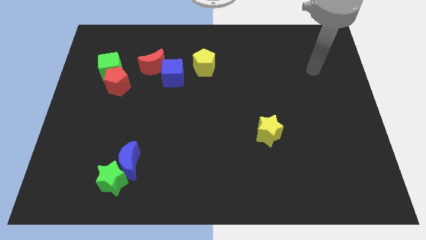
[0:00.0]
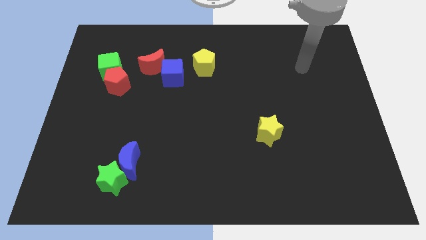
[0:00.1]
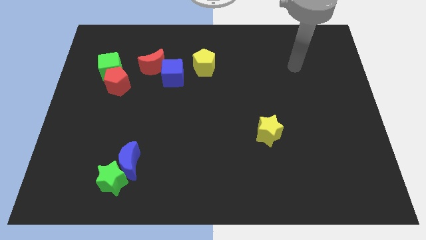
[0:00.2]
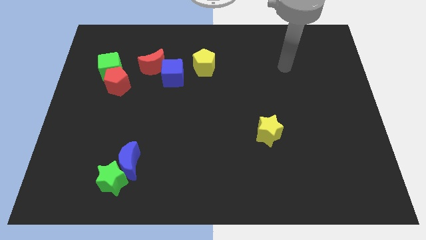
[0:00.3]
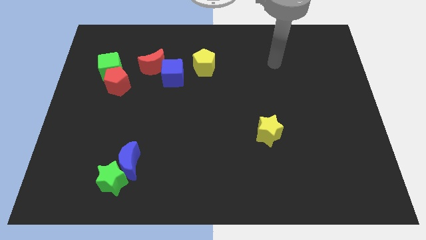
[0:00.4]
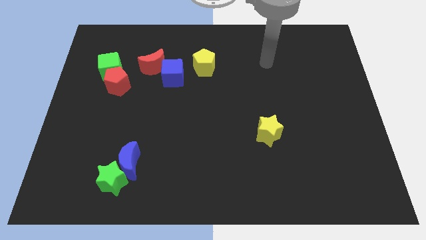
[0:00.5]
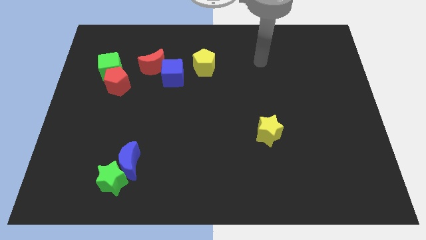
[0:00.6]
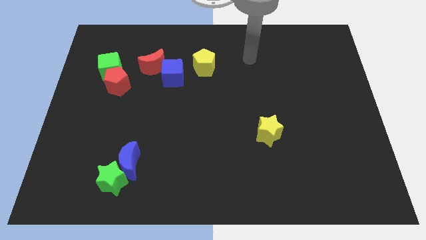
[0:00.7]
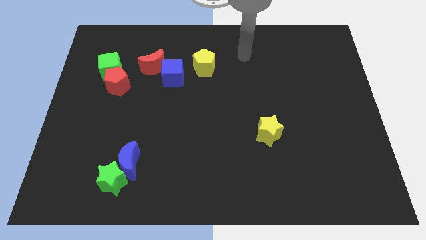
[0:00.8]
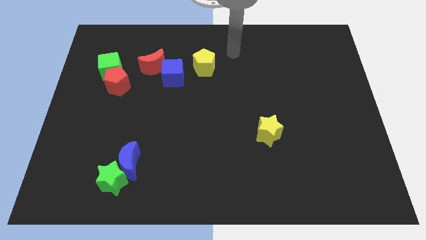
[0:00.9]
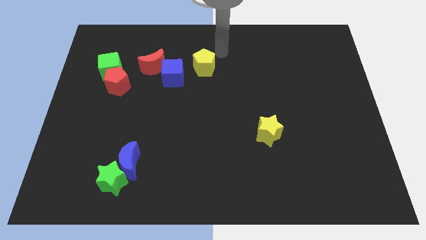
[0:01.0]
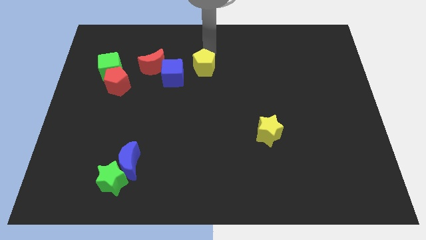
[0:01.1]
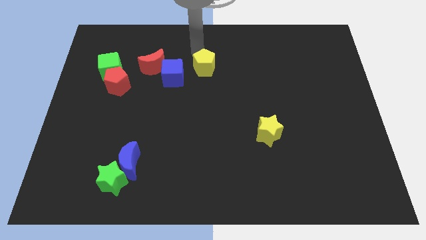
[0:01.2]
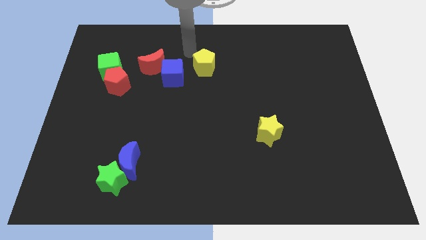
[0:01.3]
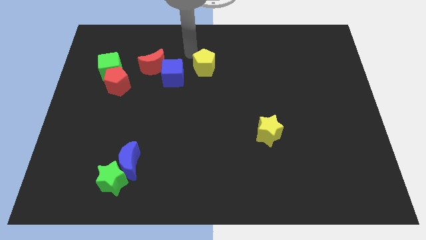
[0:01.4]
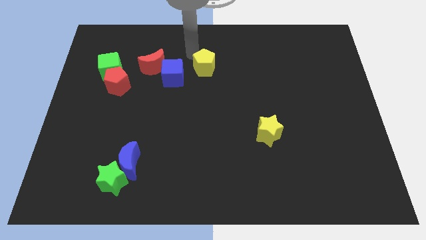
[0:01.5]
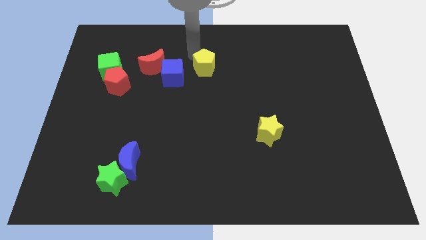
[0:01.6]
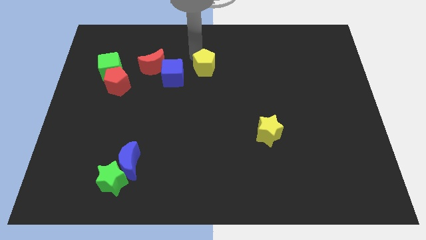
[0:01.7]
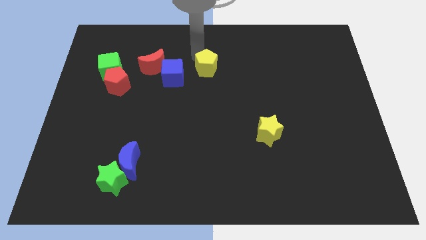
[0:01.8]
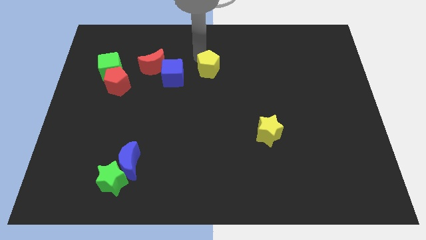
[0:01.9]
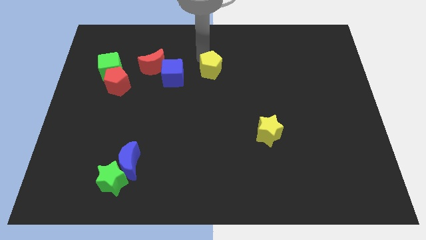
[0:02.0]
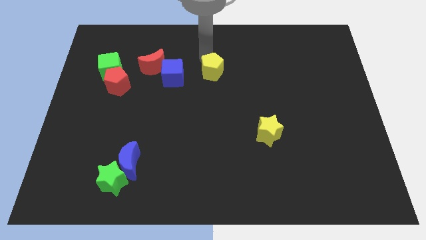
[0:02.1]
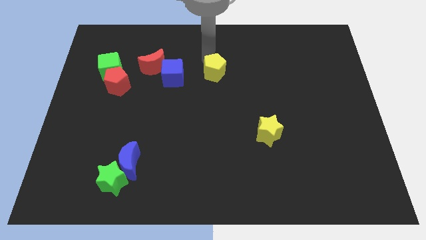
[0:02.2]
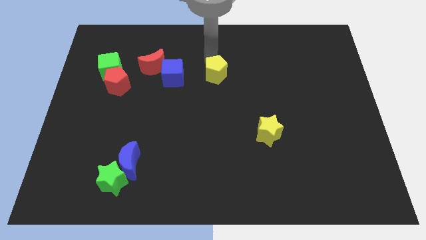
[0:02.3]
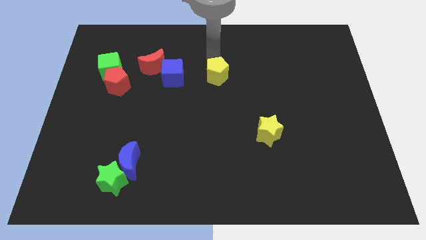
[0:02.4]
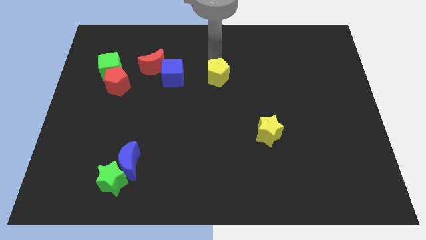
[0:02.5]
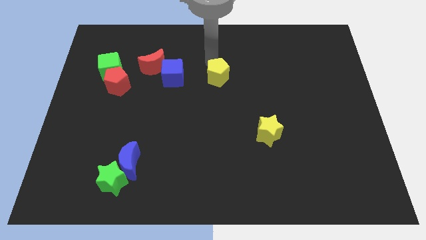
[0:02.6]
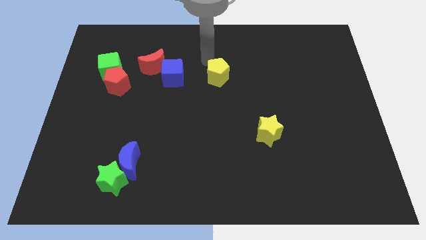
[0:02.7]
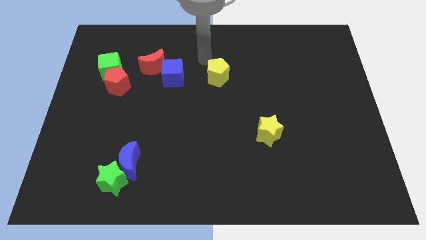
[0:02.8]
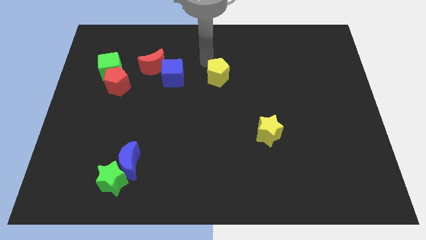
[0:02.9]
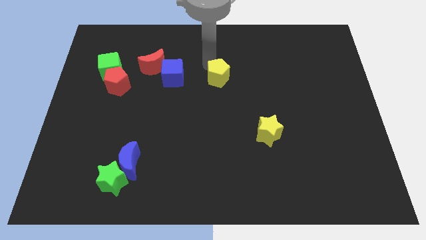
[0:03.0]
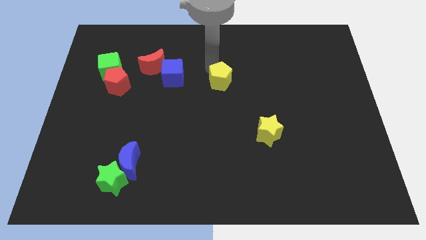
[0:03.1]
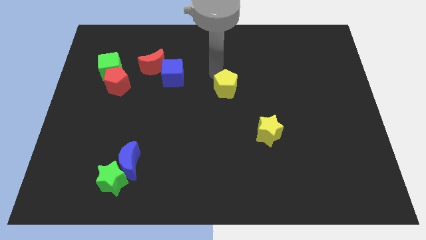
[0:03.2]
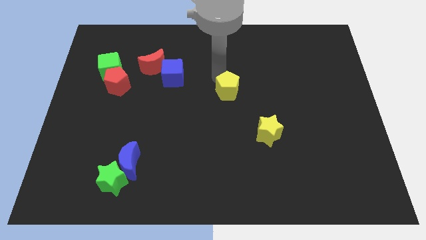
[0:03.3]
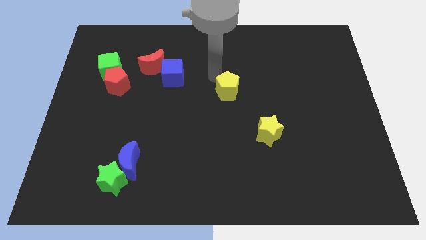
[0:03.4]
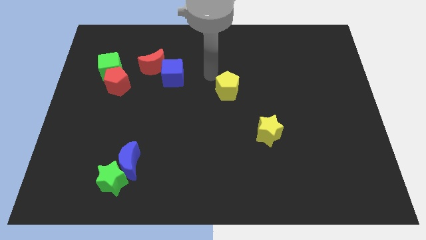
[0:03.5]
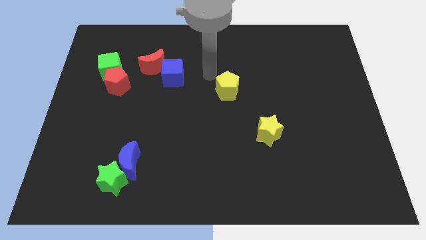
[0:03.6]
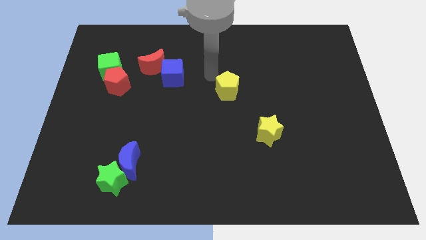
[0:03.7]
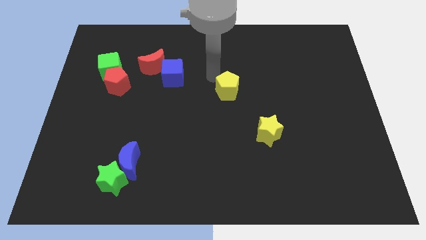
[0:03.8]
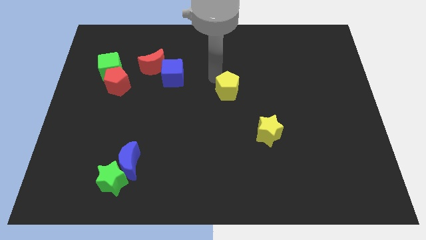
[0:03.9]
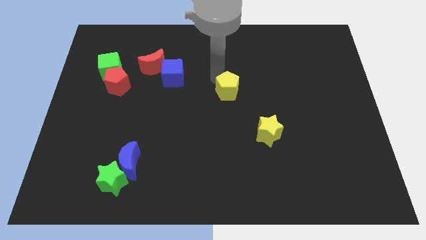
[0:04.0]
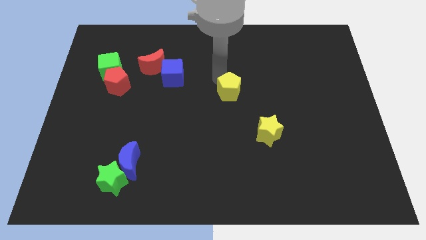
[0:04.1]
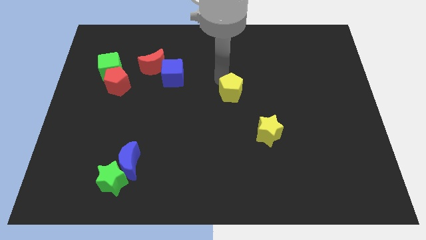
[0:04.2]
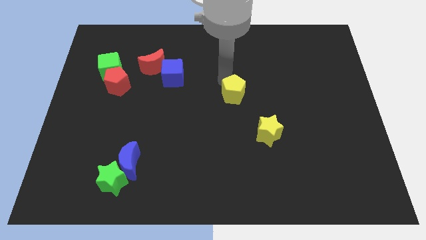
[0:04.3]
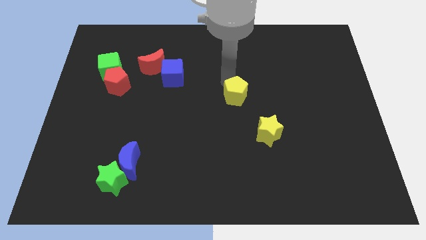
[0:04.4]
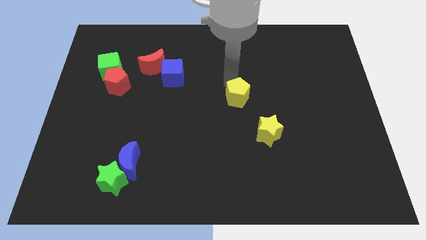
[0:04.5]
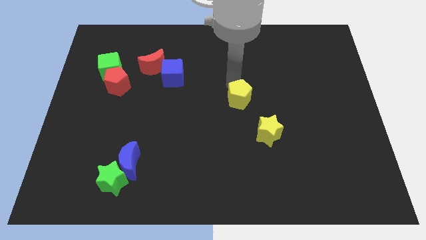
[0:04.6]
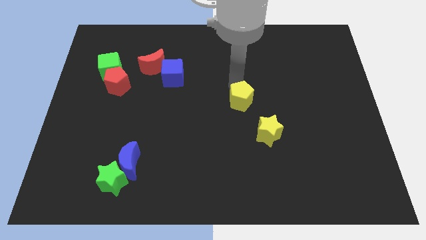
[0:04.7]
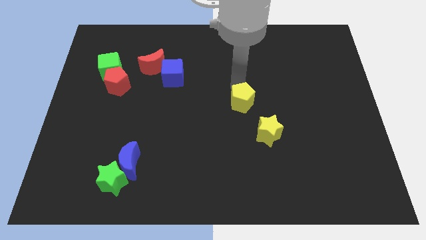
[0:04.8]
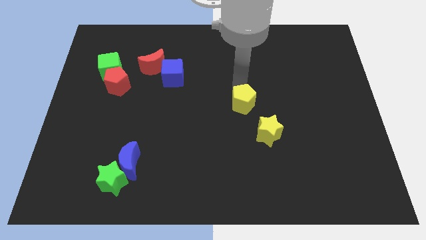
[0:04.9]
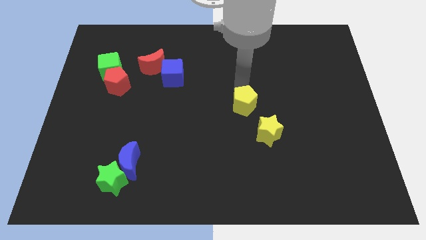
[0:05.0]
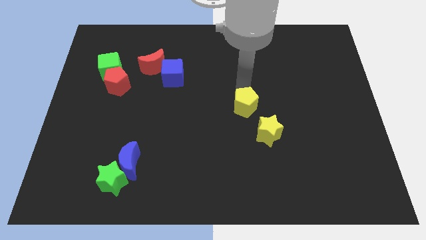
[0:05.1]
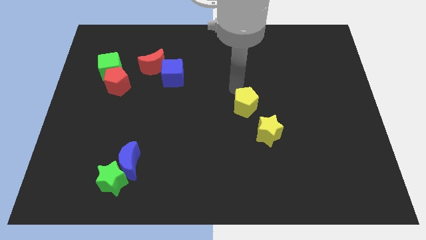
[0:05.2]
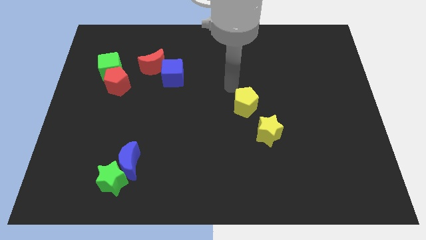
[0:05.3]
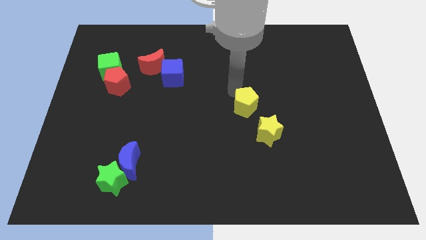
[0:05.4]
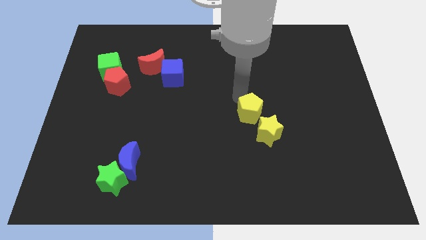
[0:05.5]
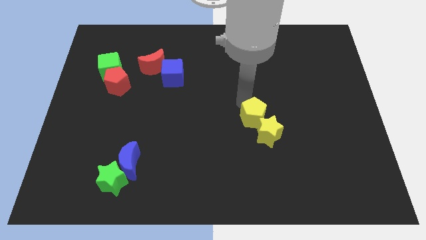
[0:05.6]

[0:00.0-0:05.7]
move the yellow pentagon close to the yellow star

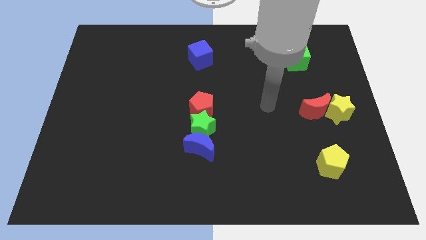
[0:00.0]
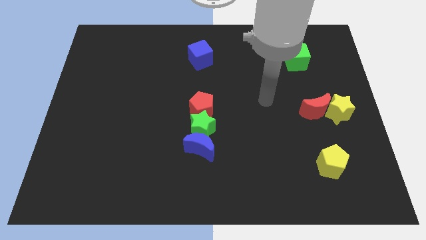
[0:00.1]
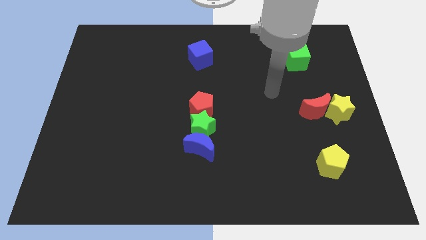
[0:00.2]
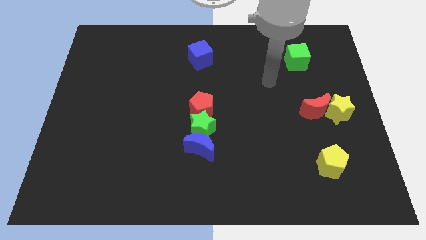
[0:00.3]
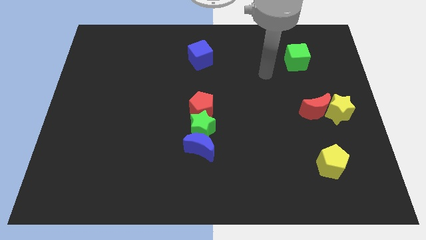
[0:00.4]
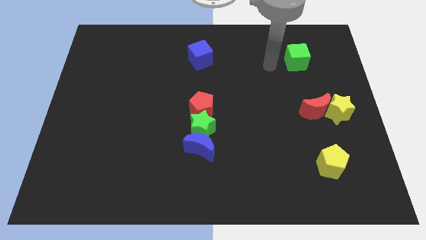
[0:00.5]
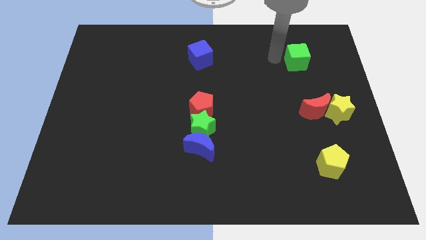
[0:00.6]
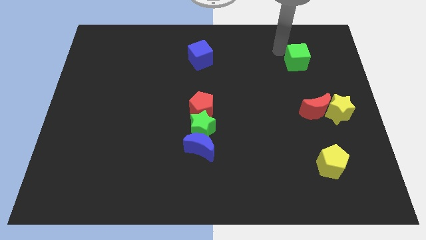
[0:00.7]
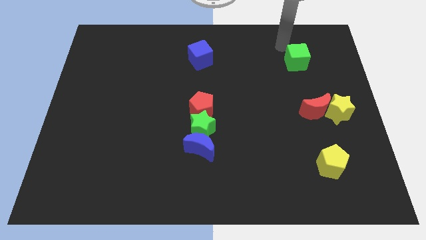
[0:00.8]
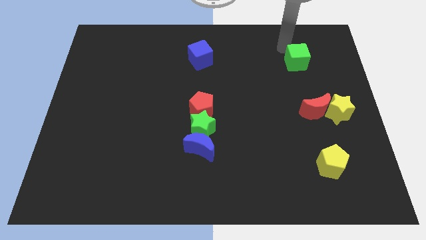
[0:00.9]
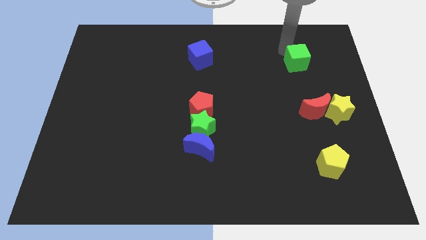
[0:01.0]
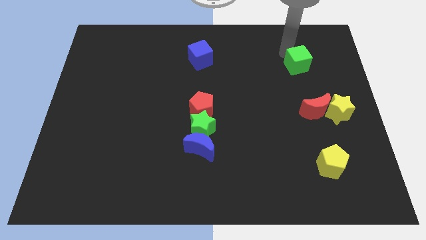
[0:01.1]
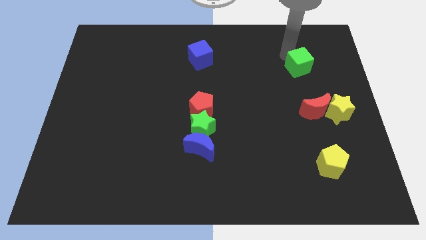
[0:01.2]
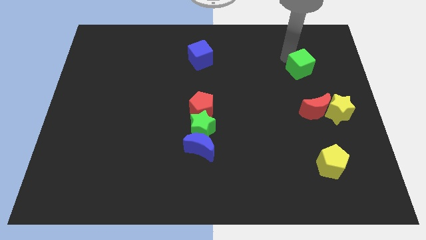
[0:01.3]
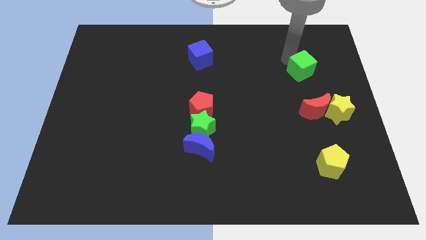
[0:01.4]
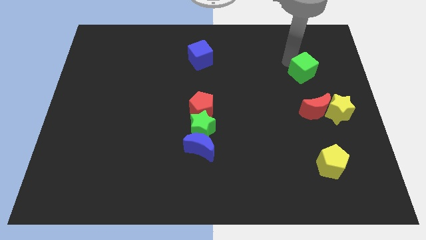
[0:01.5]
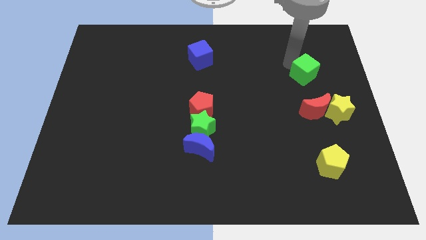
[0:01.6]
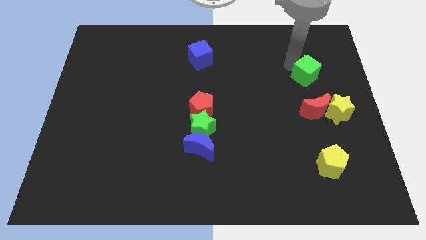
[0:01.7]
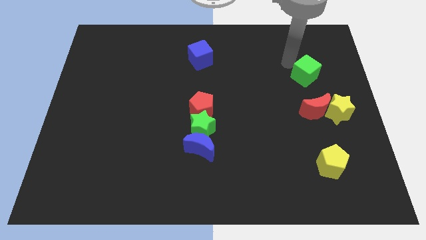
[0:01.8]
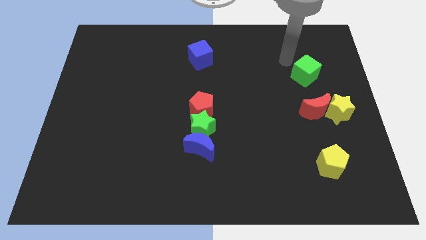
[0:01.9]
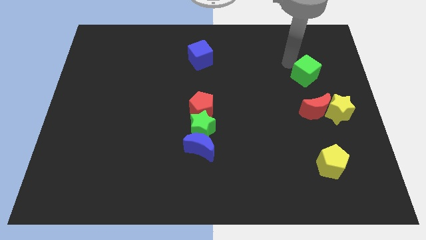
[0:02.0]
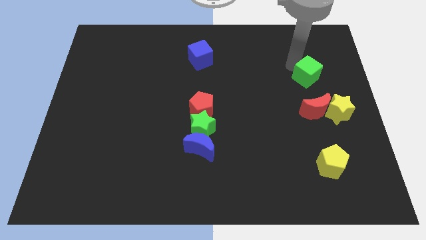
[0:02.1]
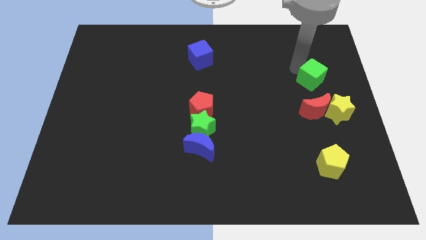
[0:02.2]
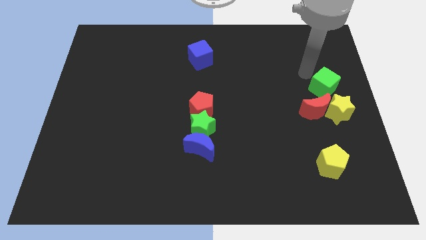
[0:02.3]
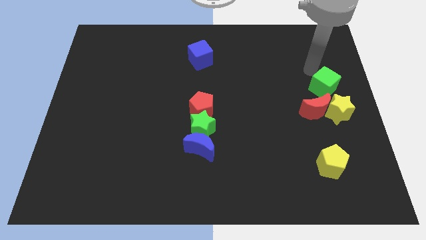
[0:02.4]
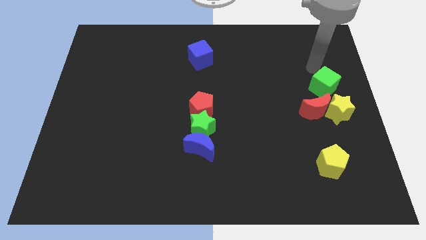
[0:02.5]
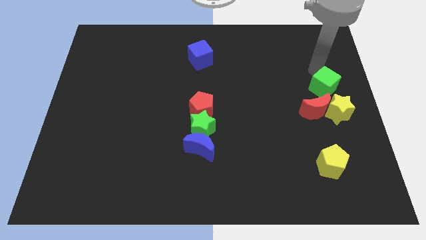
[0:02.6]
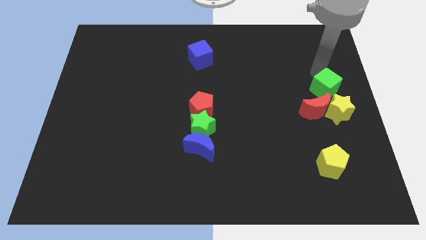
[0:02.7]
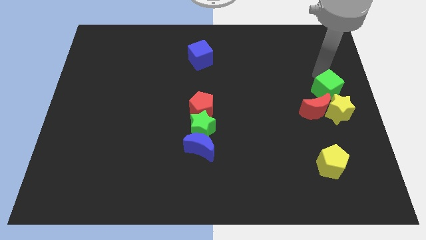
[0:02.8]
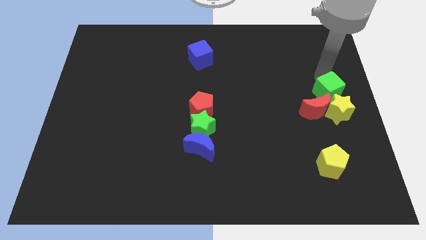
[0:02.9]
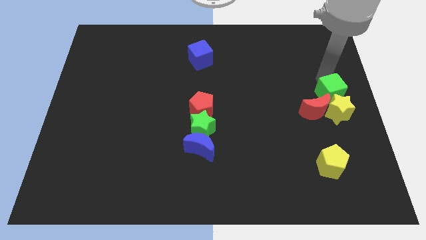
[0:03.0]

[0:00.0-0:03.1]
push the green cube towards the yellow star
